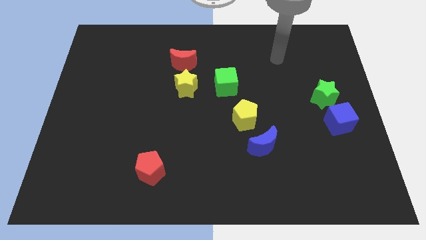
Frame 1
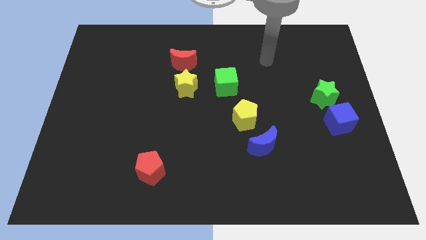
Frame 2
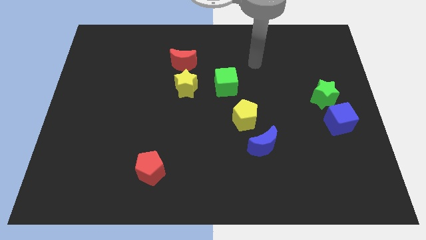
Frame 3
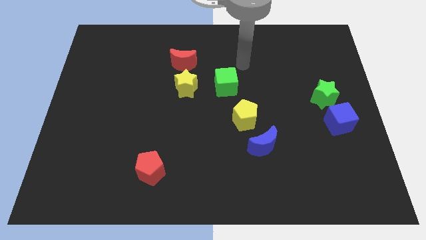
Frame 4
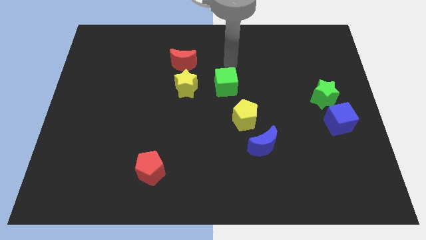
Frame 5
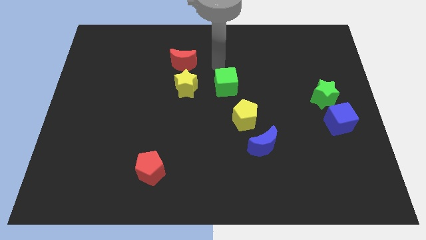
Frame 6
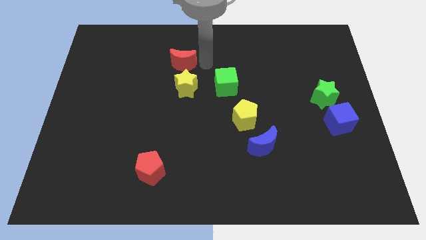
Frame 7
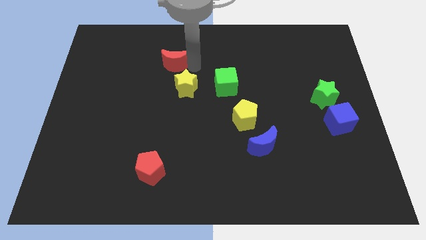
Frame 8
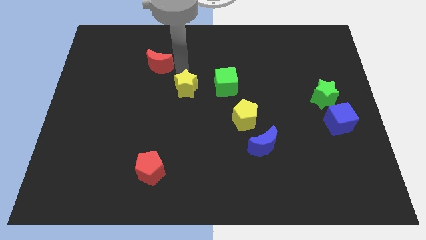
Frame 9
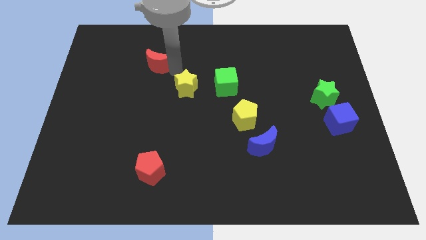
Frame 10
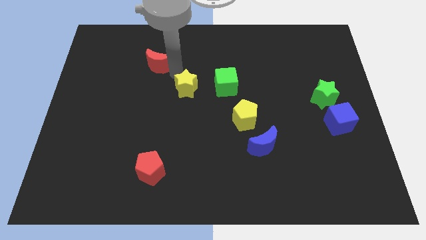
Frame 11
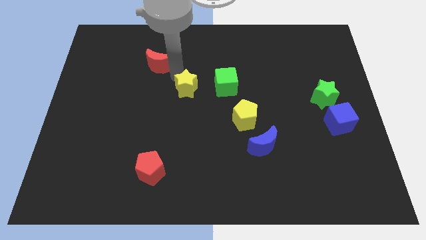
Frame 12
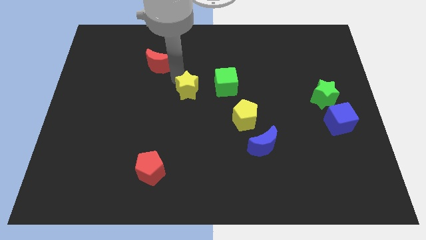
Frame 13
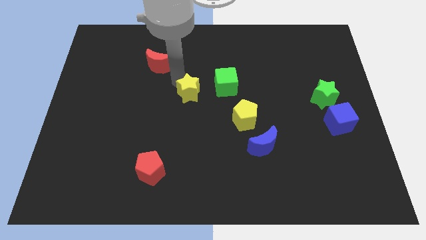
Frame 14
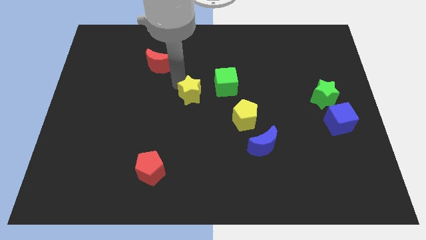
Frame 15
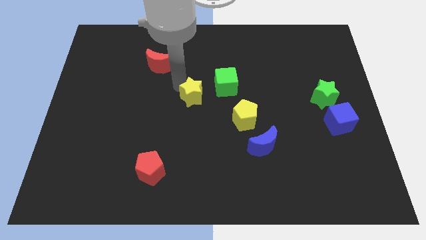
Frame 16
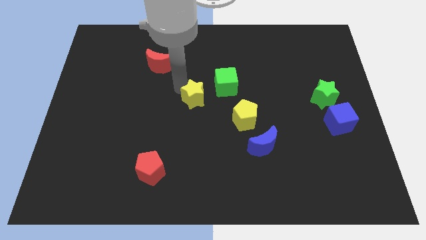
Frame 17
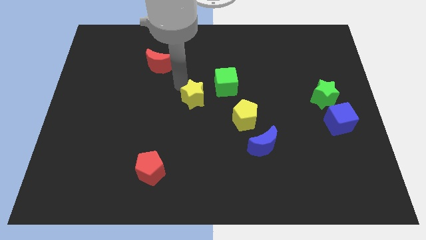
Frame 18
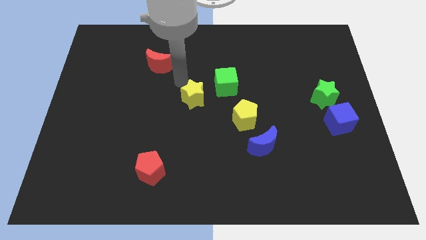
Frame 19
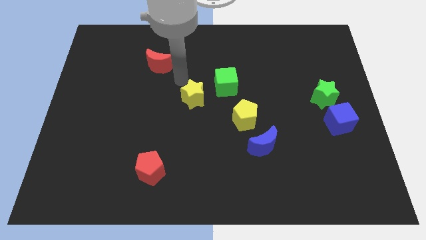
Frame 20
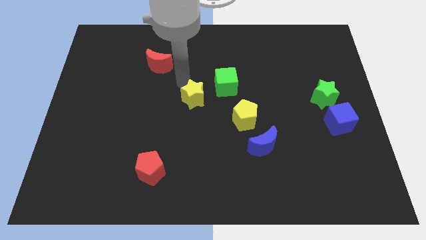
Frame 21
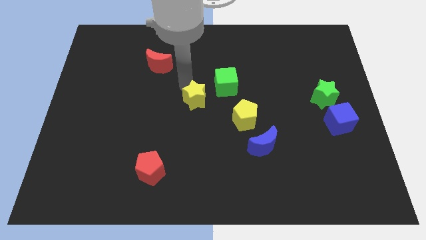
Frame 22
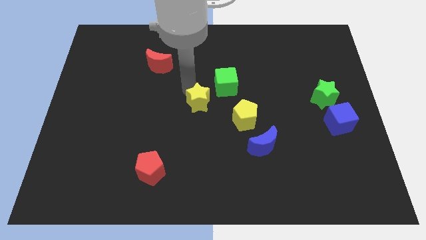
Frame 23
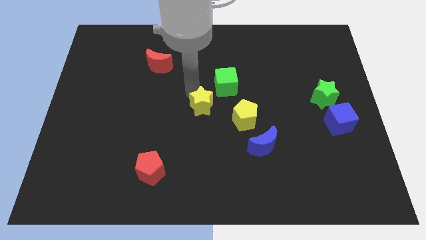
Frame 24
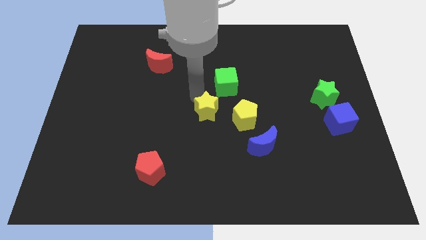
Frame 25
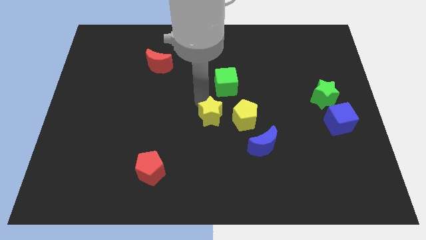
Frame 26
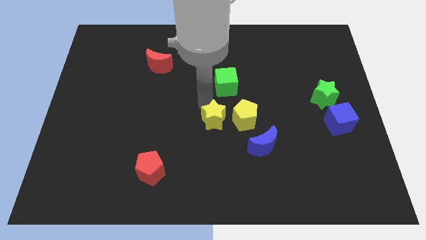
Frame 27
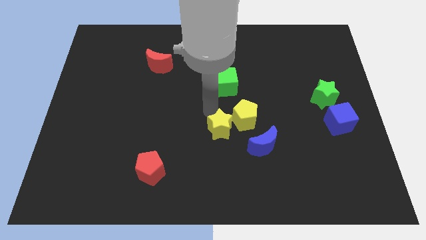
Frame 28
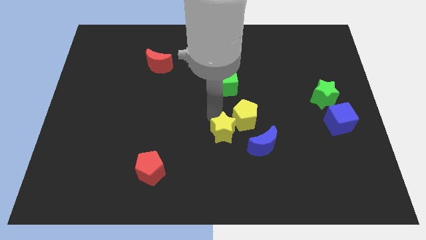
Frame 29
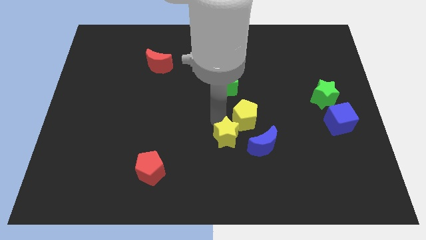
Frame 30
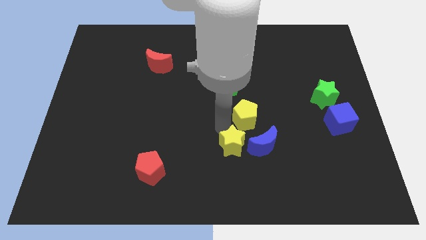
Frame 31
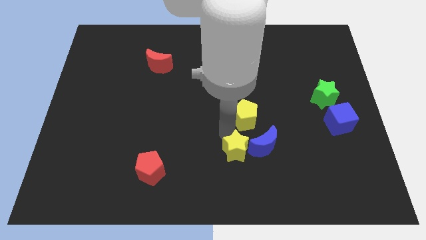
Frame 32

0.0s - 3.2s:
slide the yellow star down and to the right diagonally

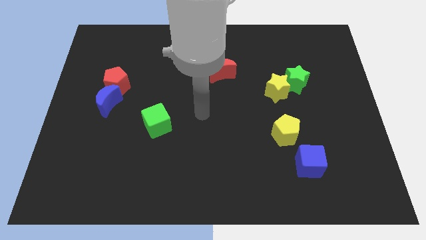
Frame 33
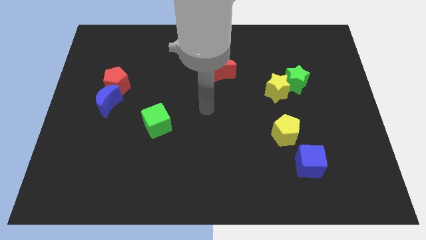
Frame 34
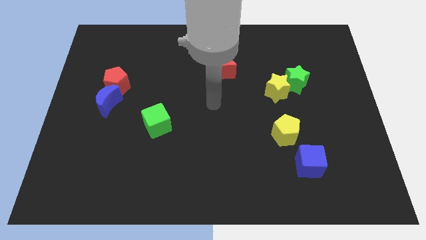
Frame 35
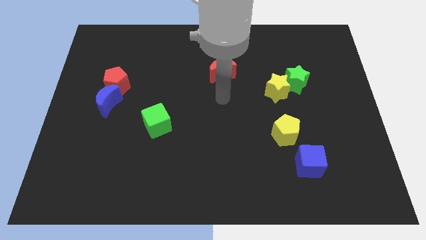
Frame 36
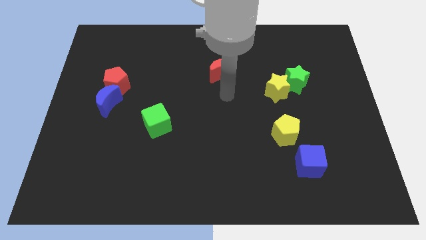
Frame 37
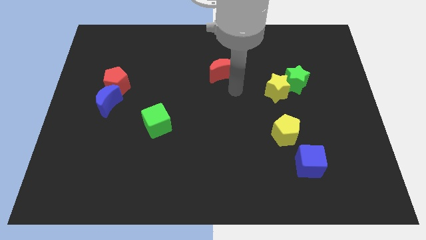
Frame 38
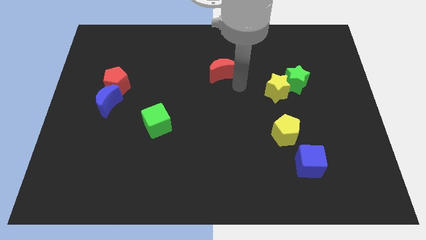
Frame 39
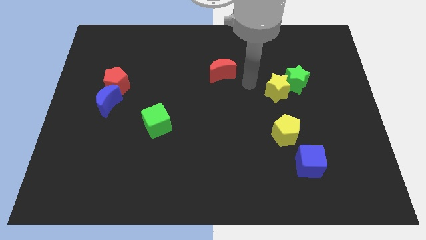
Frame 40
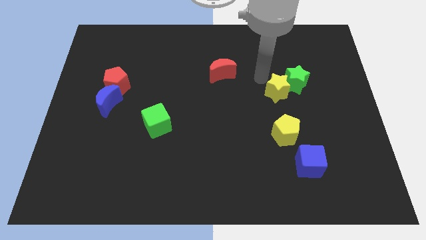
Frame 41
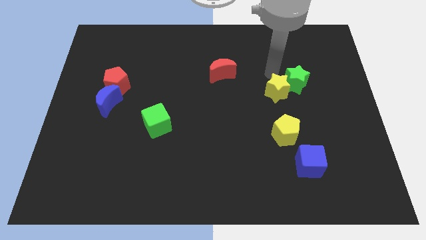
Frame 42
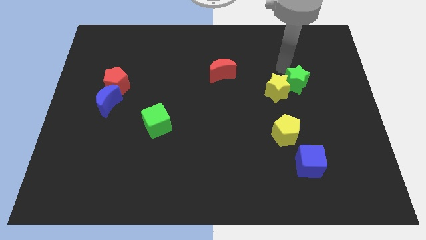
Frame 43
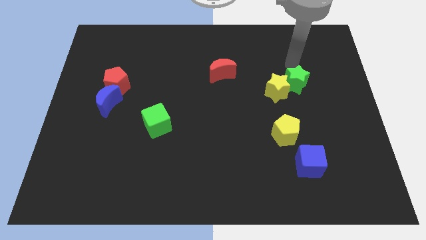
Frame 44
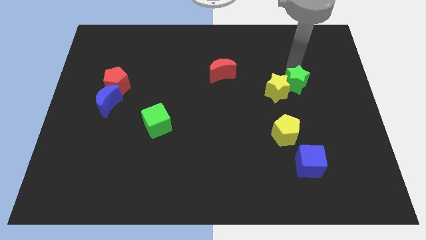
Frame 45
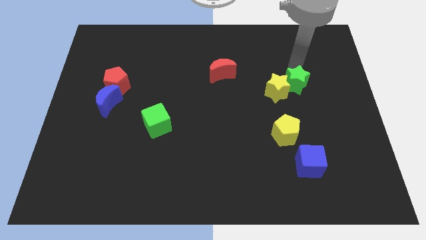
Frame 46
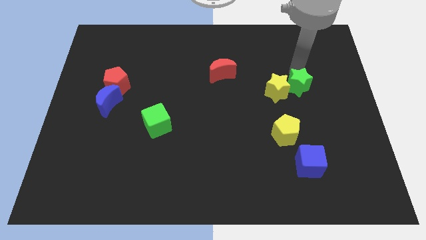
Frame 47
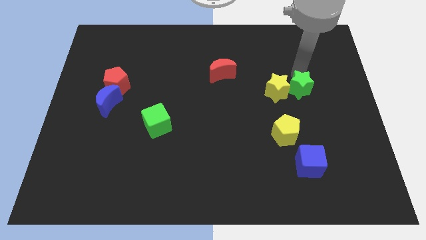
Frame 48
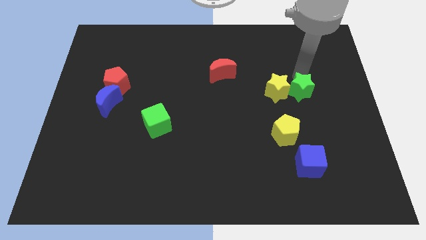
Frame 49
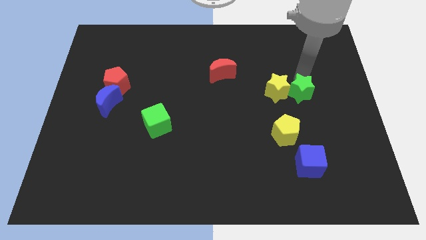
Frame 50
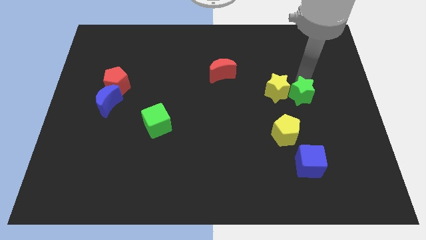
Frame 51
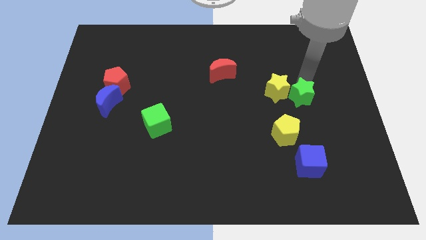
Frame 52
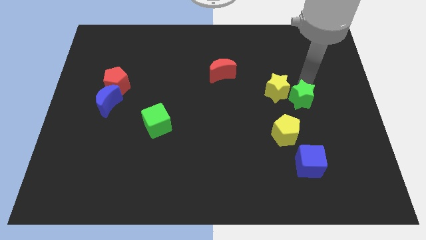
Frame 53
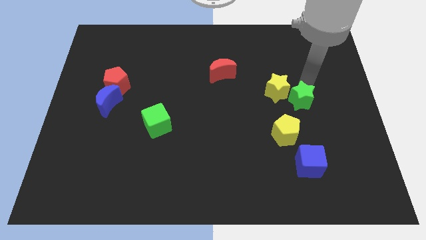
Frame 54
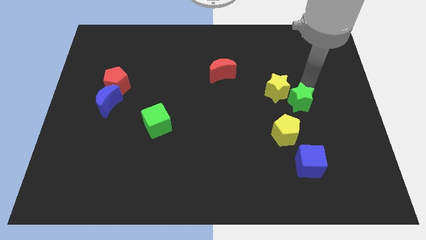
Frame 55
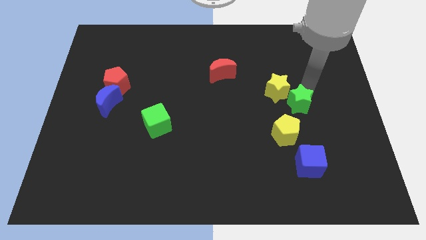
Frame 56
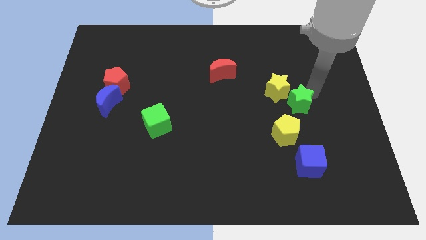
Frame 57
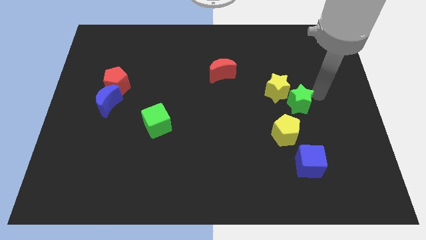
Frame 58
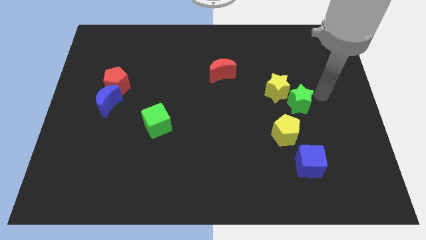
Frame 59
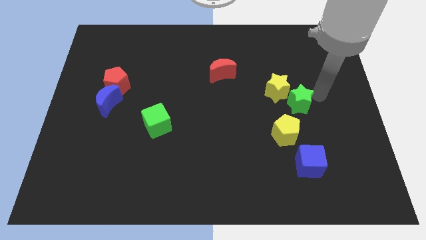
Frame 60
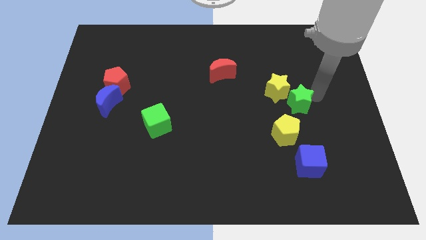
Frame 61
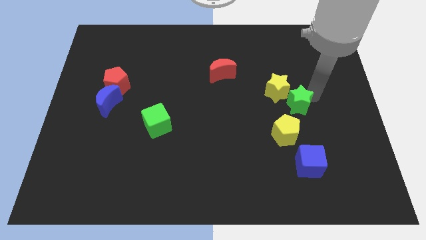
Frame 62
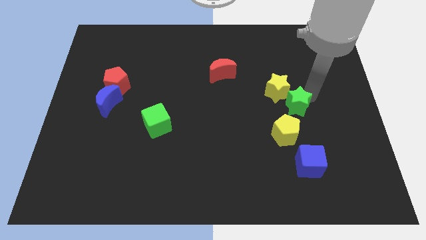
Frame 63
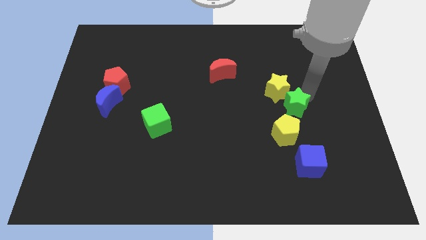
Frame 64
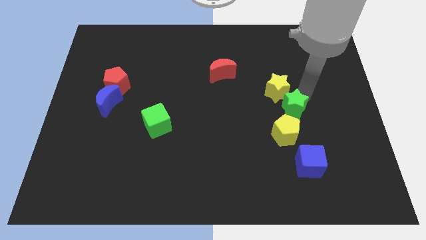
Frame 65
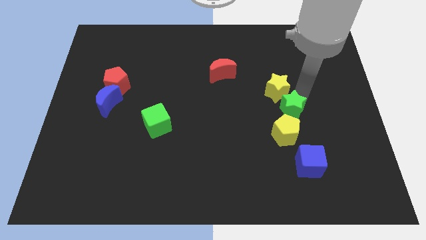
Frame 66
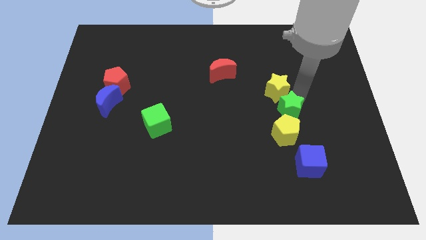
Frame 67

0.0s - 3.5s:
slightly move the green star downwards and then left

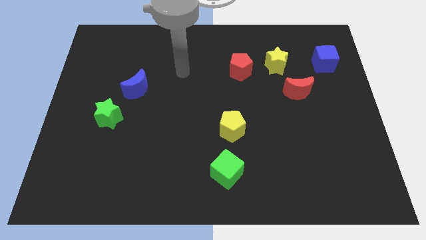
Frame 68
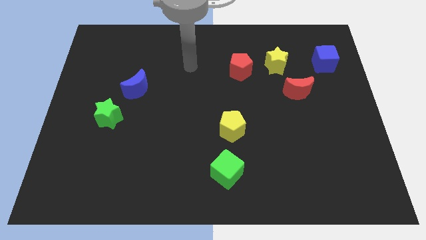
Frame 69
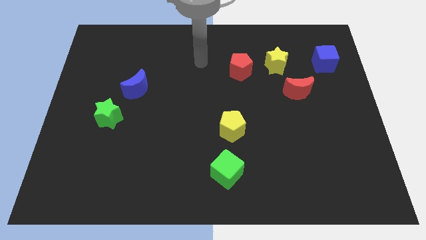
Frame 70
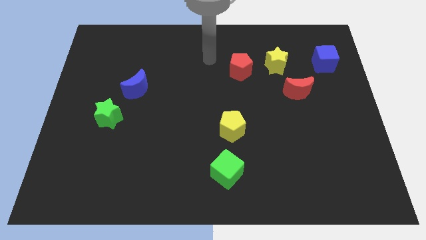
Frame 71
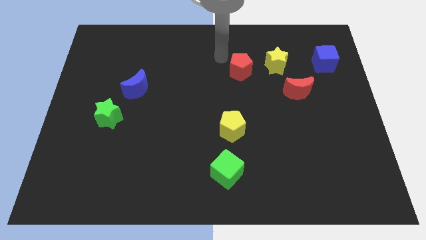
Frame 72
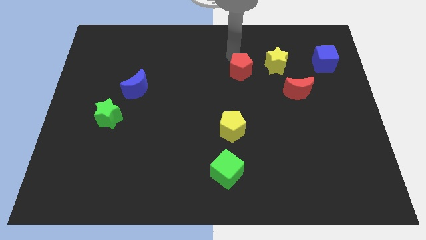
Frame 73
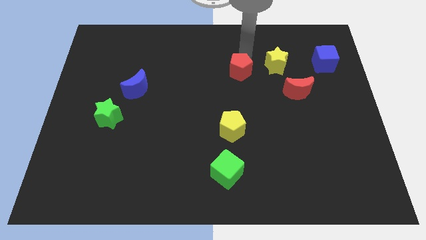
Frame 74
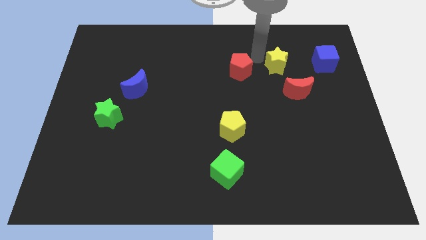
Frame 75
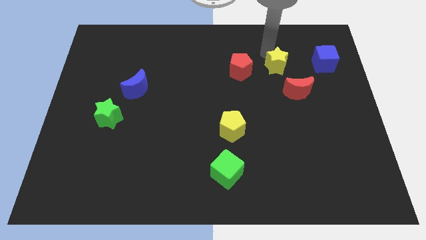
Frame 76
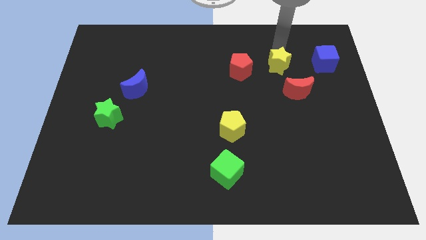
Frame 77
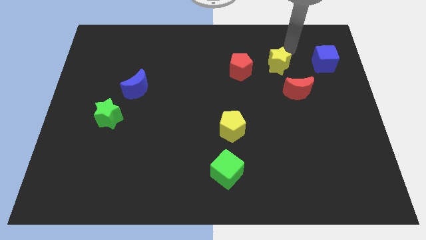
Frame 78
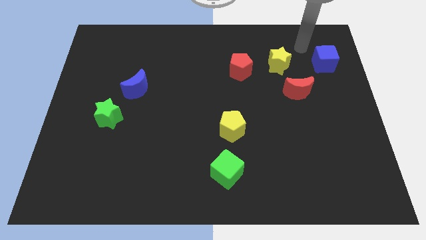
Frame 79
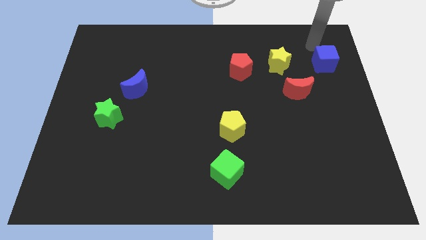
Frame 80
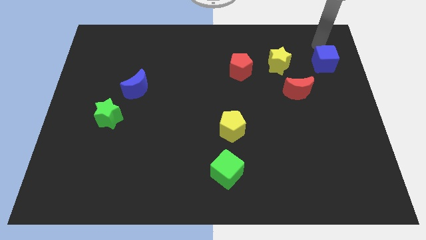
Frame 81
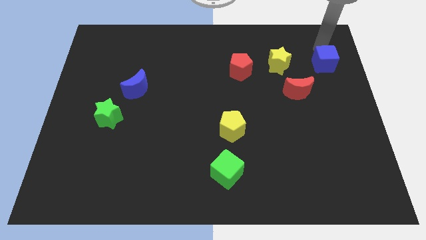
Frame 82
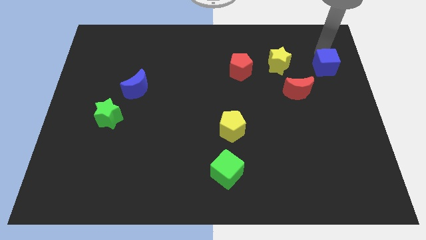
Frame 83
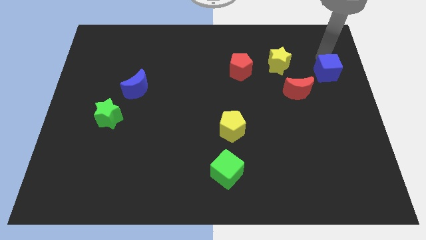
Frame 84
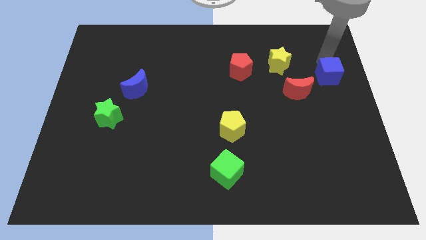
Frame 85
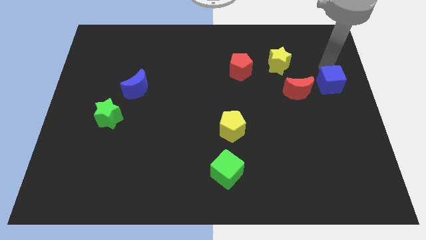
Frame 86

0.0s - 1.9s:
push the blue cube a little bit downwards
